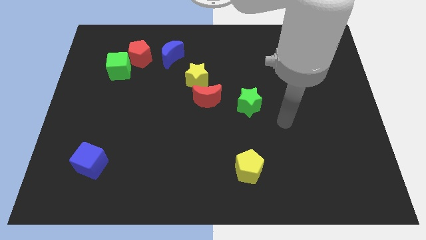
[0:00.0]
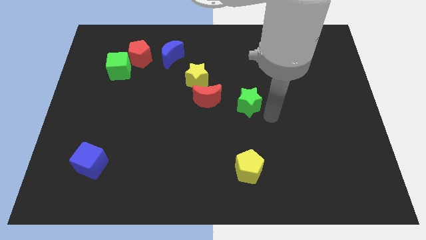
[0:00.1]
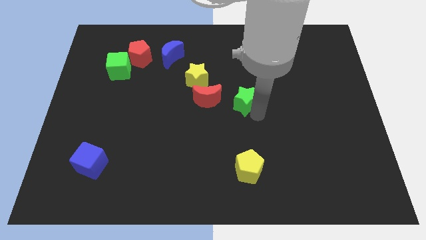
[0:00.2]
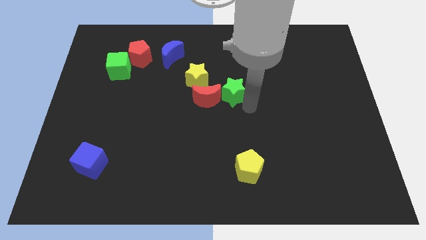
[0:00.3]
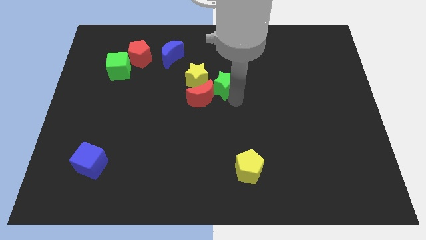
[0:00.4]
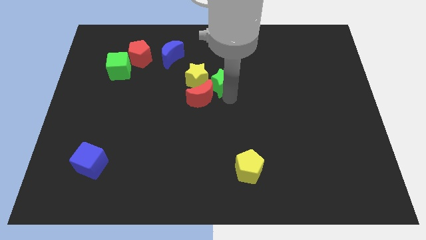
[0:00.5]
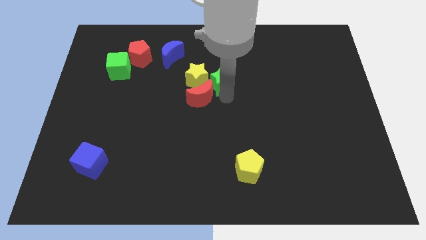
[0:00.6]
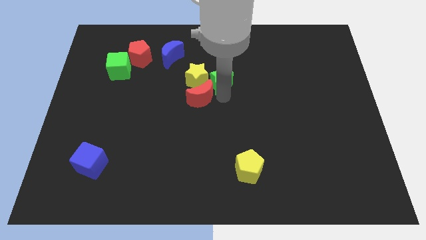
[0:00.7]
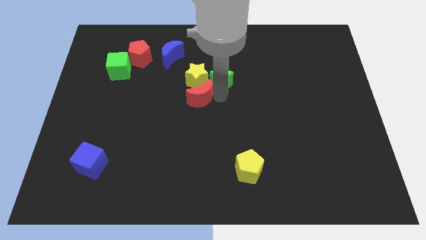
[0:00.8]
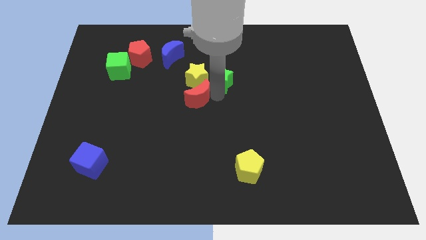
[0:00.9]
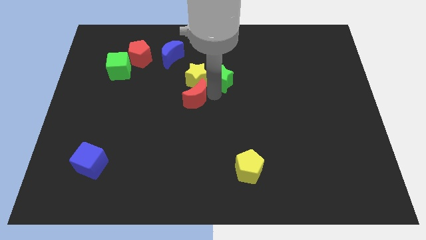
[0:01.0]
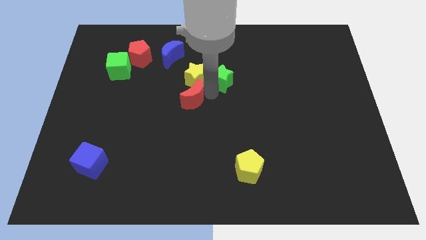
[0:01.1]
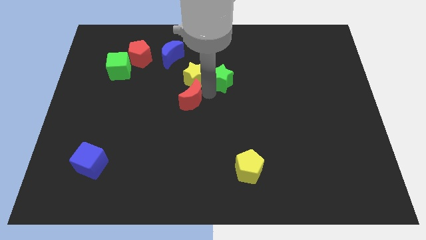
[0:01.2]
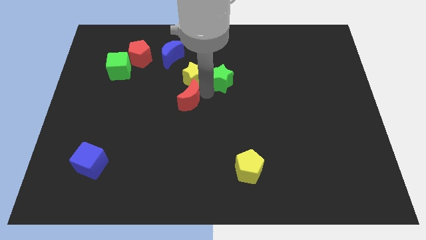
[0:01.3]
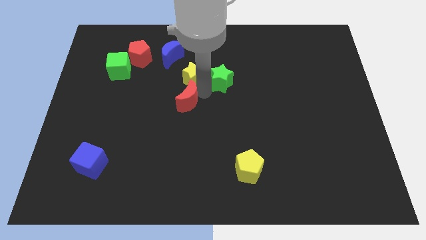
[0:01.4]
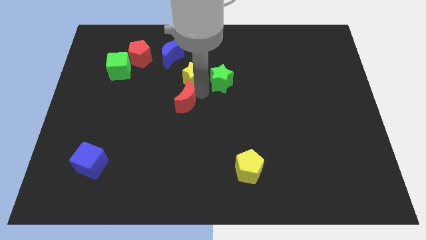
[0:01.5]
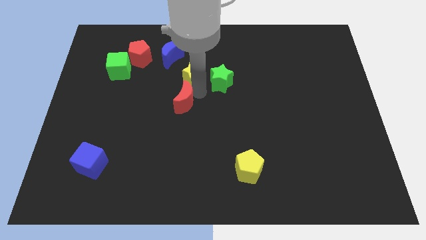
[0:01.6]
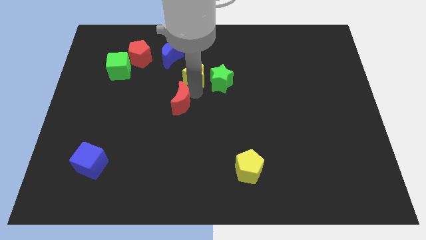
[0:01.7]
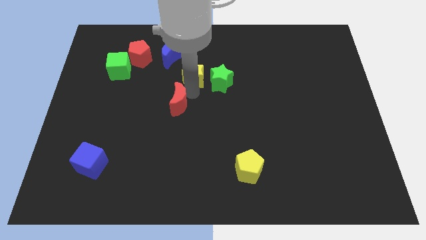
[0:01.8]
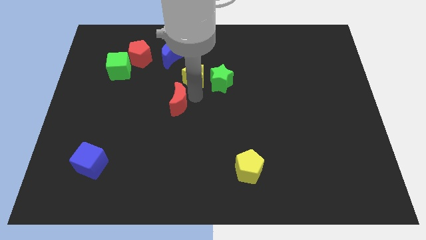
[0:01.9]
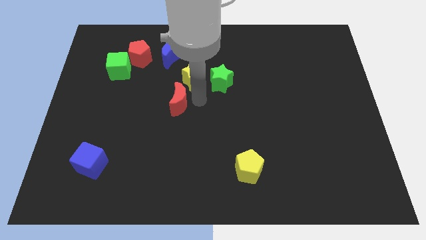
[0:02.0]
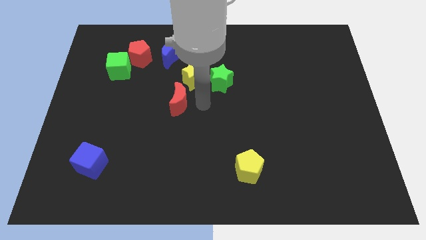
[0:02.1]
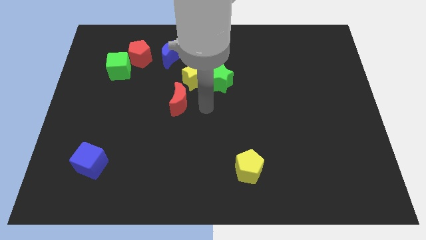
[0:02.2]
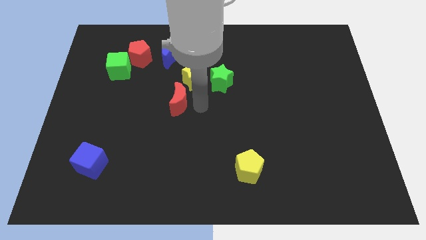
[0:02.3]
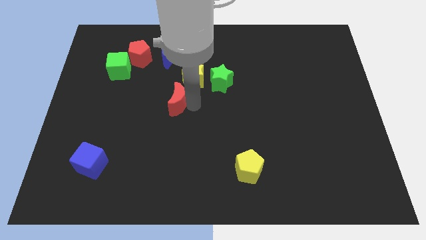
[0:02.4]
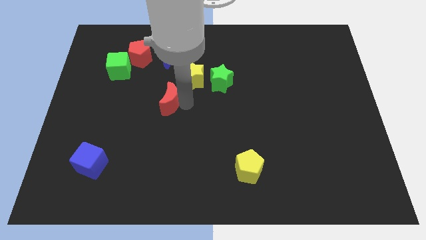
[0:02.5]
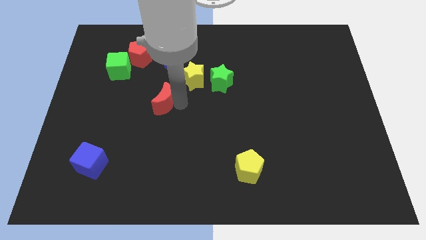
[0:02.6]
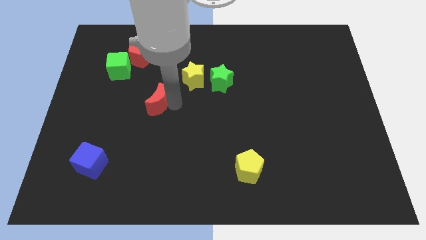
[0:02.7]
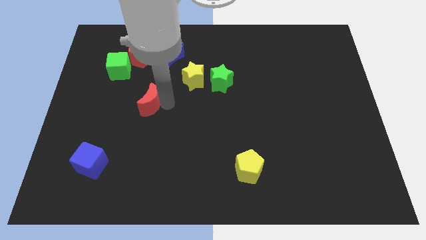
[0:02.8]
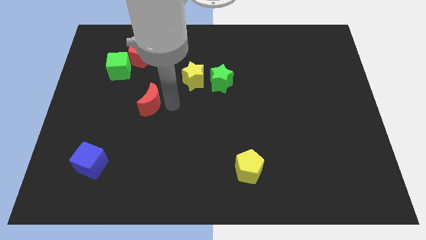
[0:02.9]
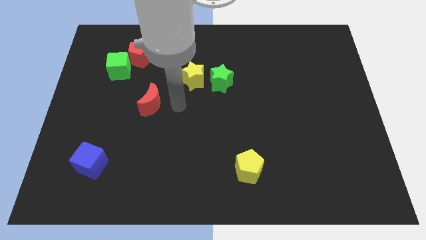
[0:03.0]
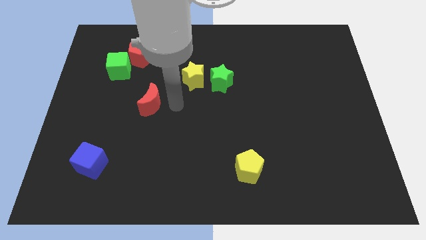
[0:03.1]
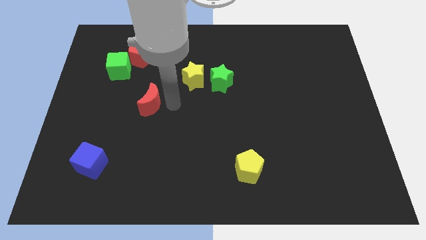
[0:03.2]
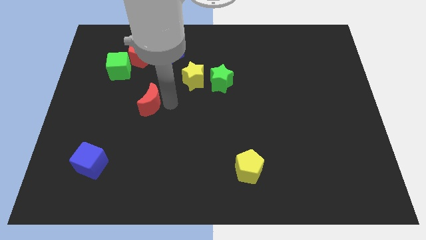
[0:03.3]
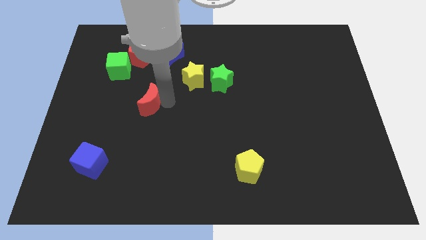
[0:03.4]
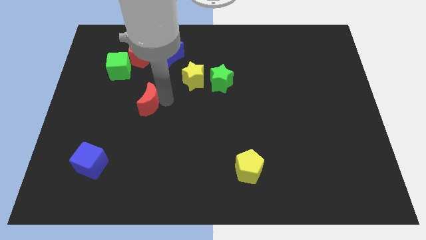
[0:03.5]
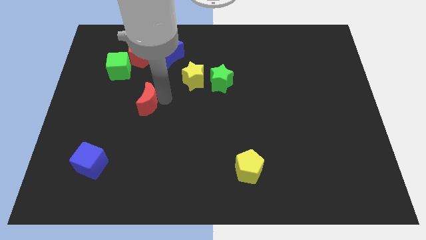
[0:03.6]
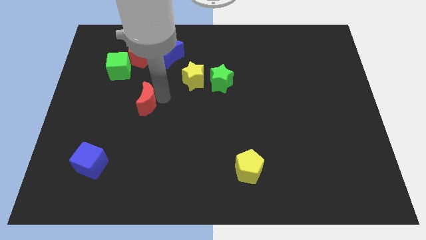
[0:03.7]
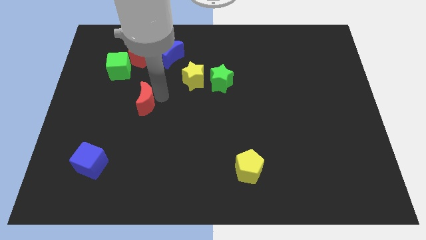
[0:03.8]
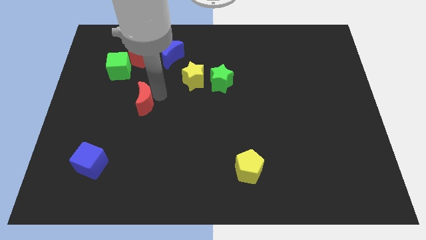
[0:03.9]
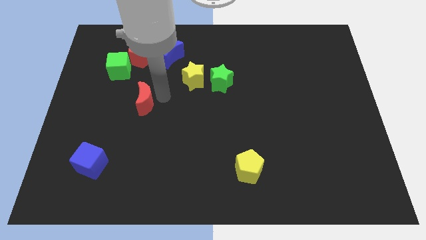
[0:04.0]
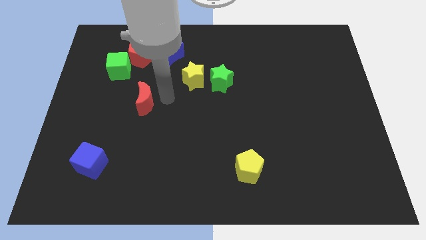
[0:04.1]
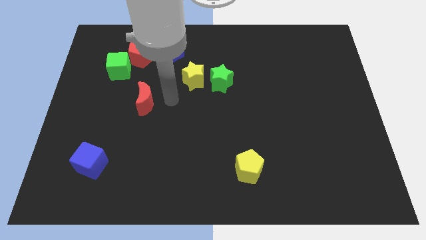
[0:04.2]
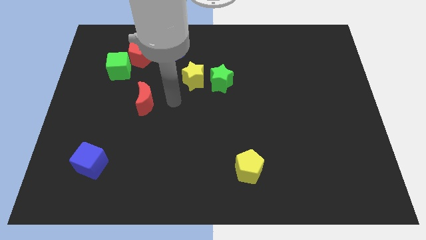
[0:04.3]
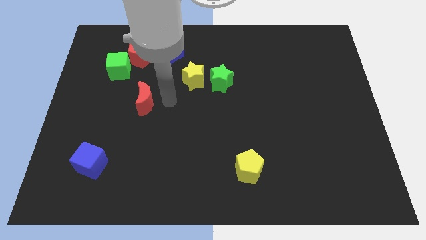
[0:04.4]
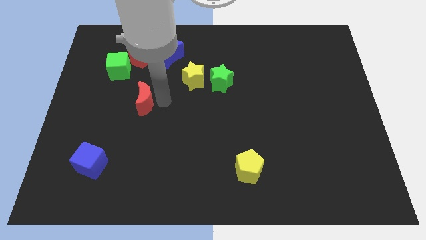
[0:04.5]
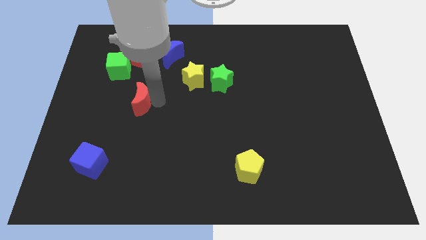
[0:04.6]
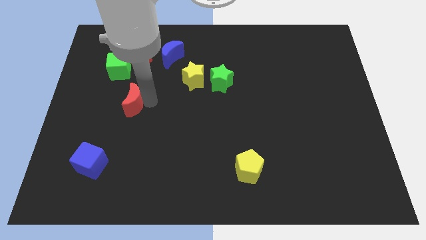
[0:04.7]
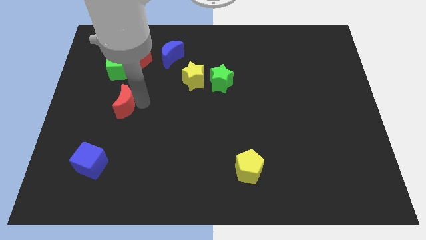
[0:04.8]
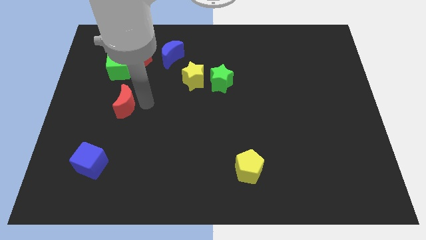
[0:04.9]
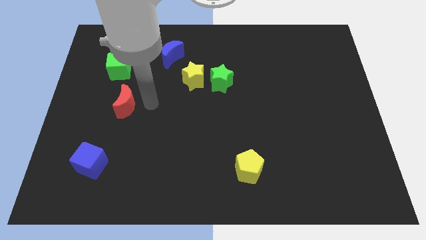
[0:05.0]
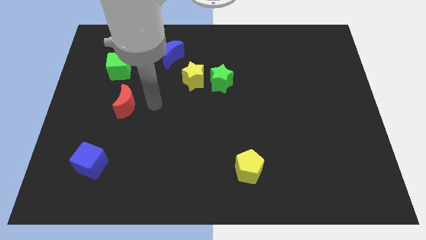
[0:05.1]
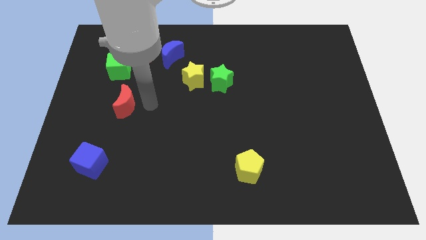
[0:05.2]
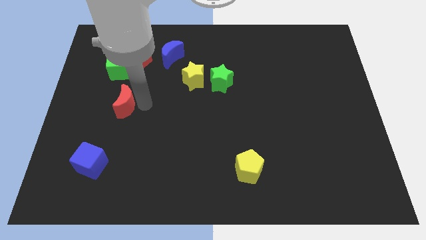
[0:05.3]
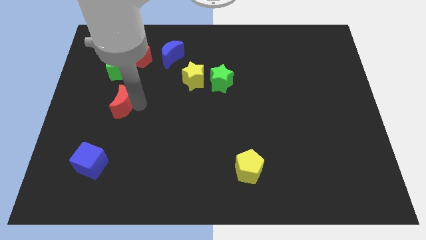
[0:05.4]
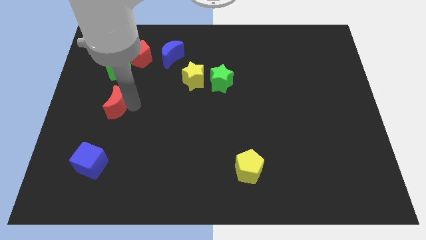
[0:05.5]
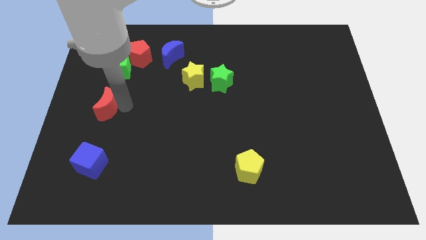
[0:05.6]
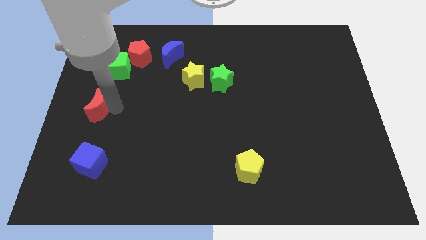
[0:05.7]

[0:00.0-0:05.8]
push the red moon to the left side of the board
